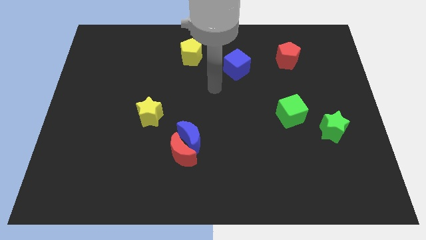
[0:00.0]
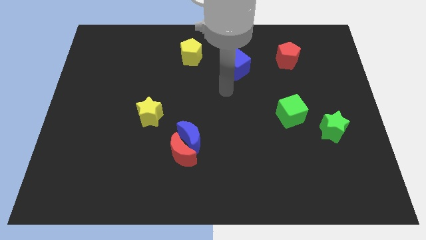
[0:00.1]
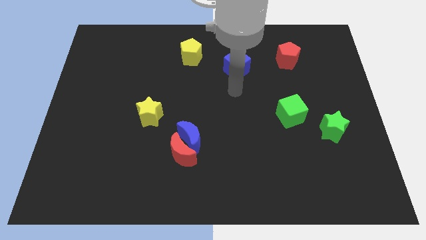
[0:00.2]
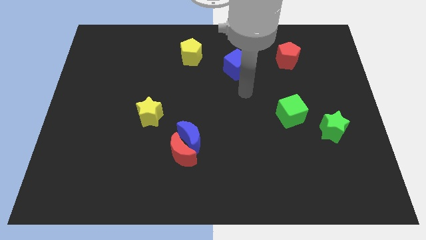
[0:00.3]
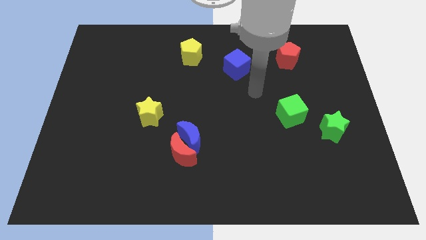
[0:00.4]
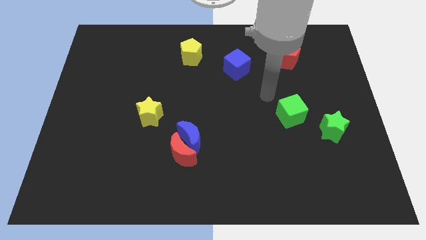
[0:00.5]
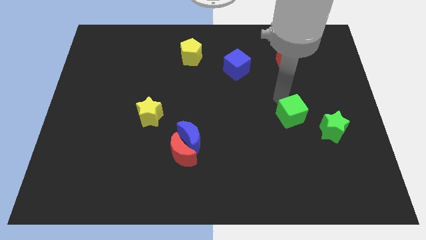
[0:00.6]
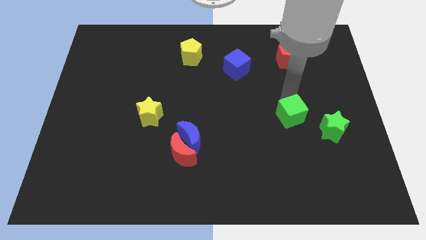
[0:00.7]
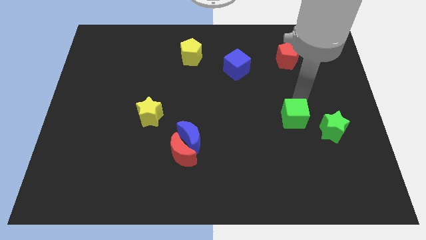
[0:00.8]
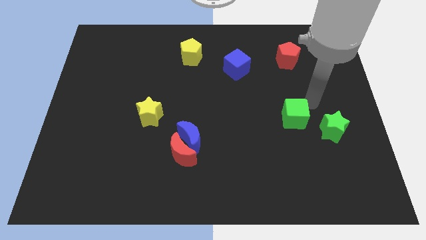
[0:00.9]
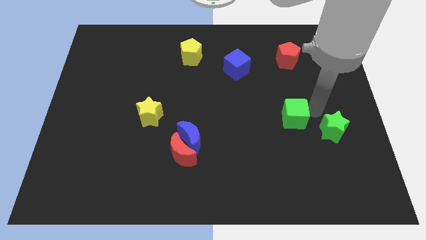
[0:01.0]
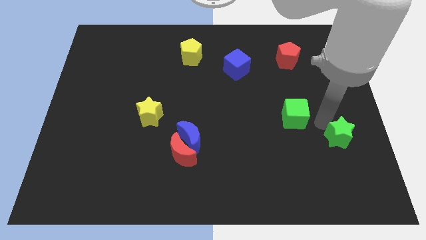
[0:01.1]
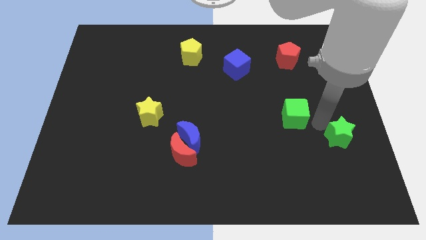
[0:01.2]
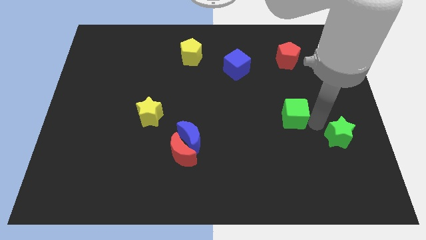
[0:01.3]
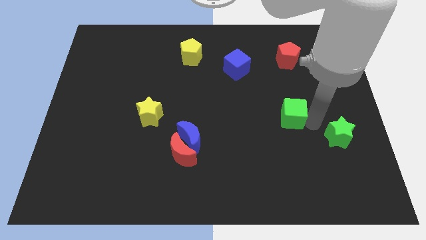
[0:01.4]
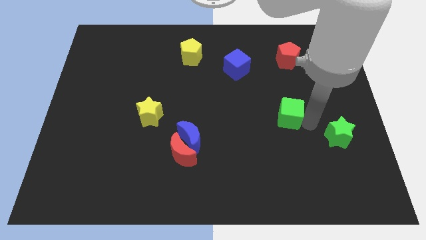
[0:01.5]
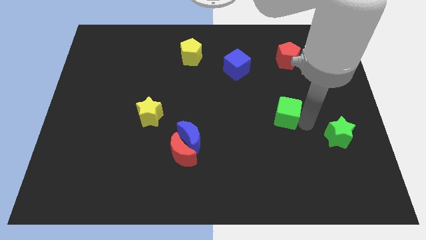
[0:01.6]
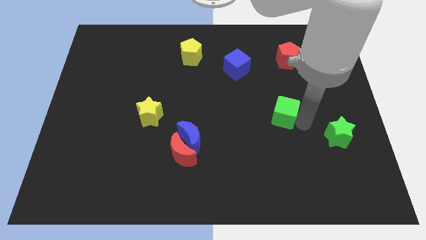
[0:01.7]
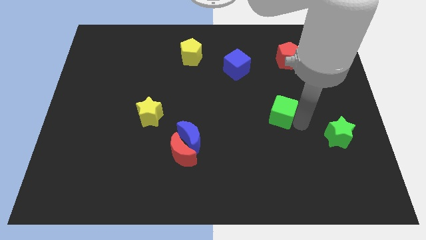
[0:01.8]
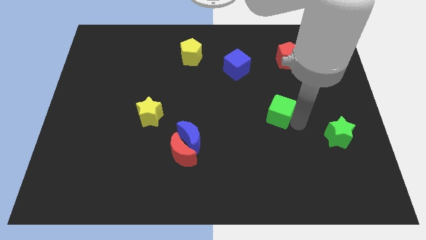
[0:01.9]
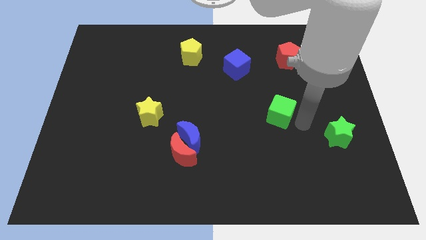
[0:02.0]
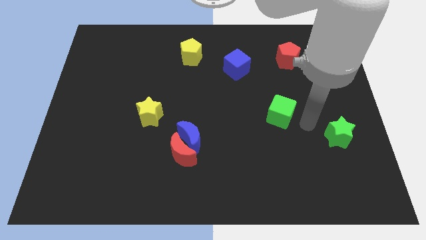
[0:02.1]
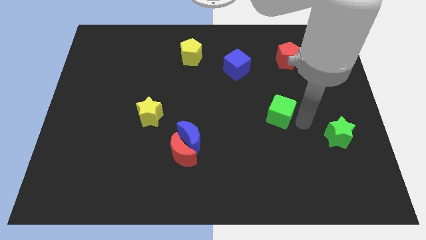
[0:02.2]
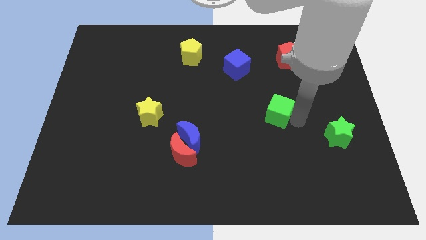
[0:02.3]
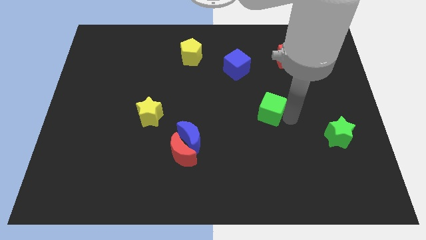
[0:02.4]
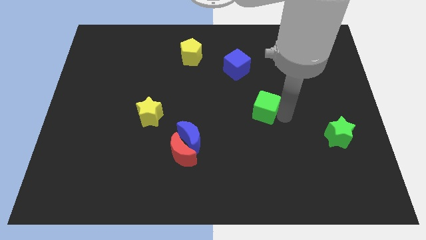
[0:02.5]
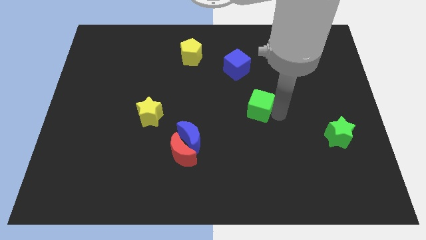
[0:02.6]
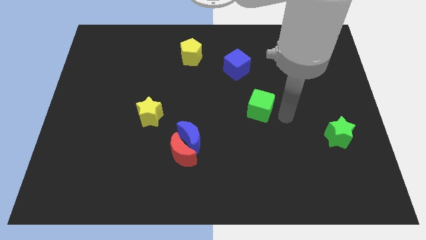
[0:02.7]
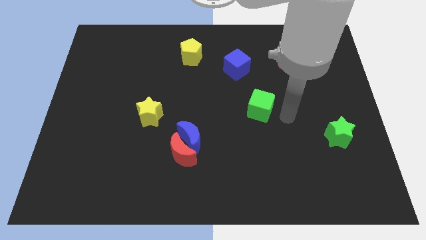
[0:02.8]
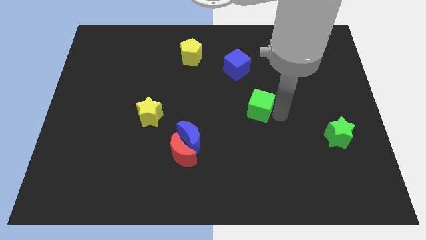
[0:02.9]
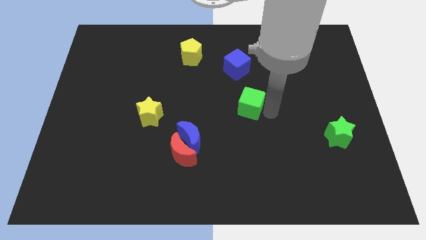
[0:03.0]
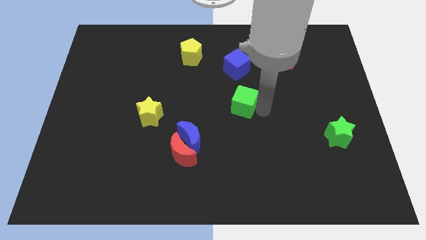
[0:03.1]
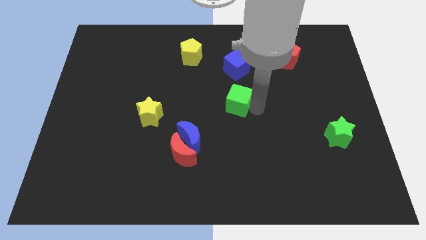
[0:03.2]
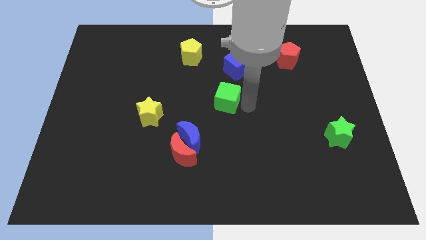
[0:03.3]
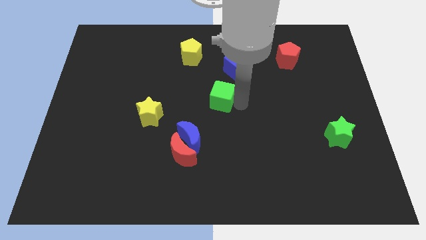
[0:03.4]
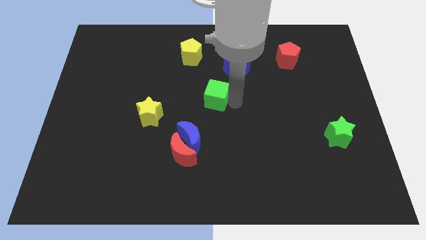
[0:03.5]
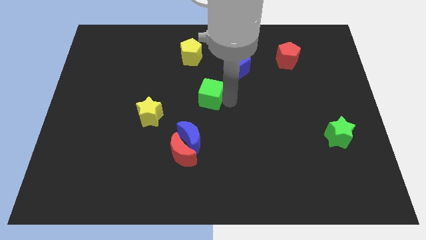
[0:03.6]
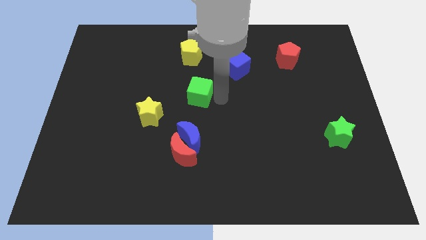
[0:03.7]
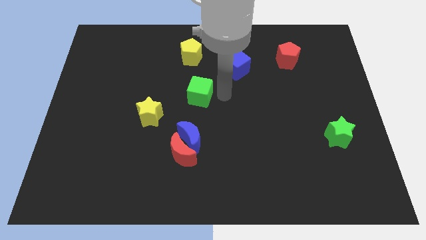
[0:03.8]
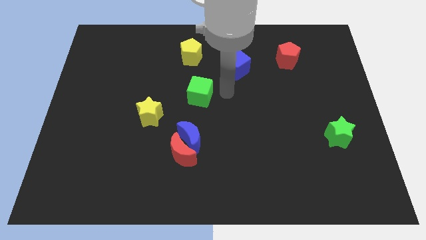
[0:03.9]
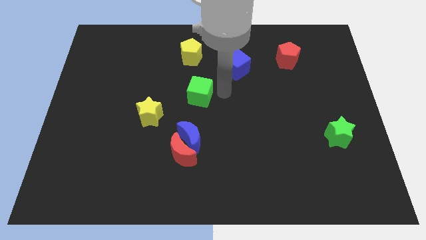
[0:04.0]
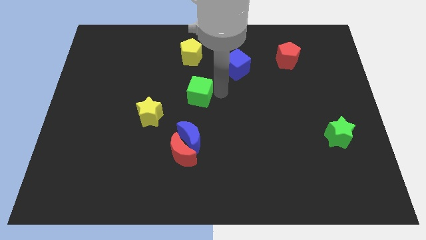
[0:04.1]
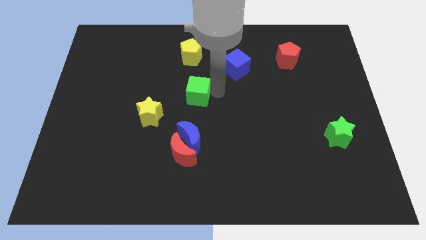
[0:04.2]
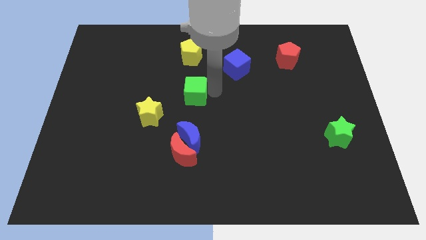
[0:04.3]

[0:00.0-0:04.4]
slide the green cube to the top right of the yellow star

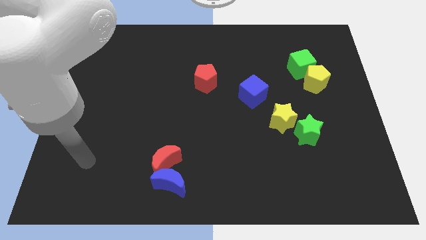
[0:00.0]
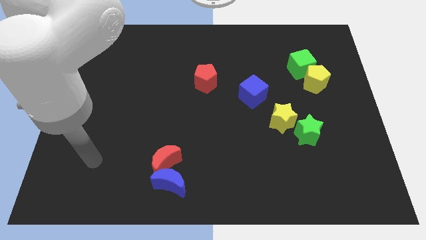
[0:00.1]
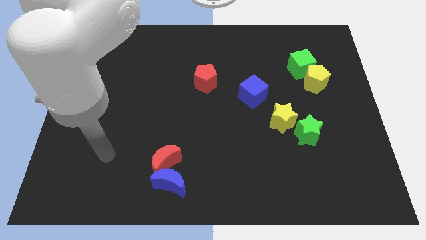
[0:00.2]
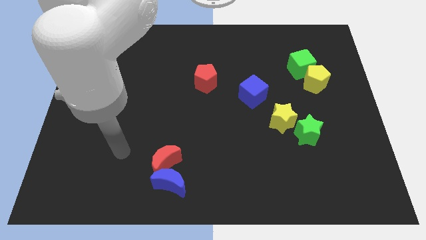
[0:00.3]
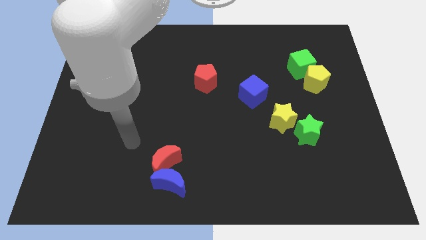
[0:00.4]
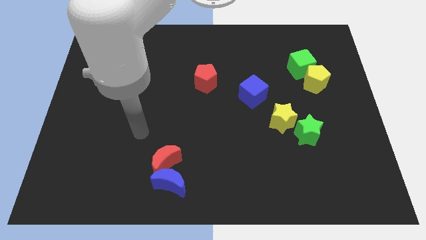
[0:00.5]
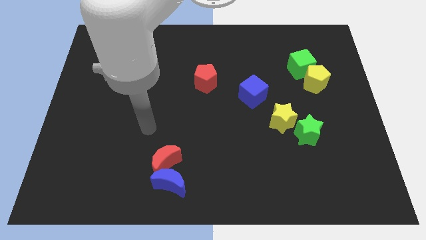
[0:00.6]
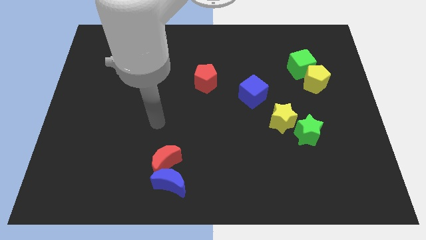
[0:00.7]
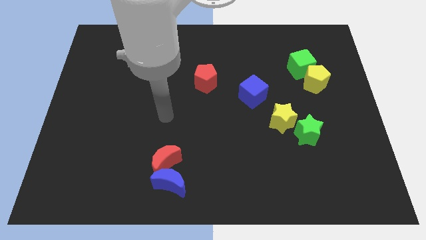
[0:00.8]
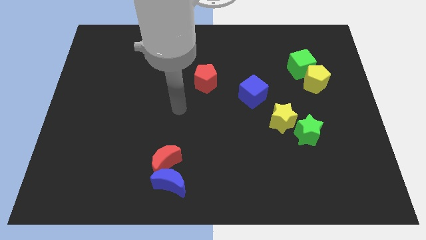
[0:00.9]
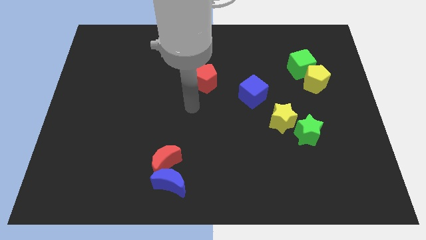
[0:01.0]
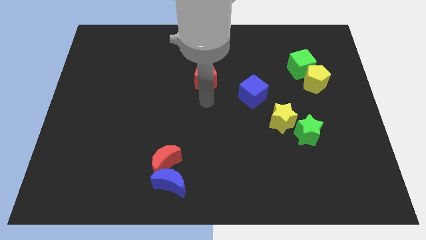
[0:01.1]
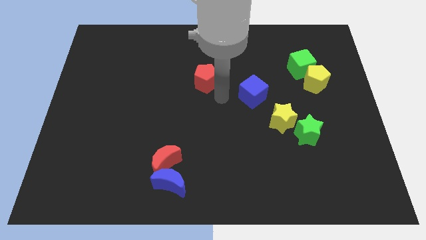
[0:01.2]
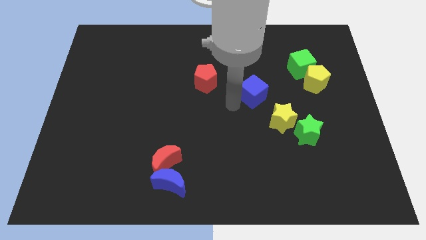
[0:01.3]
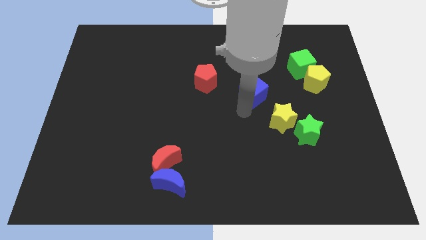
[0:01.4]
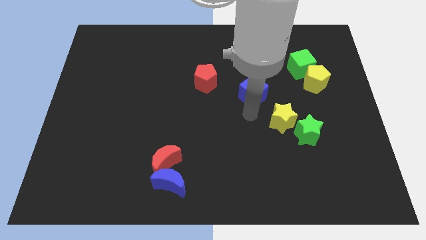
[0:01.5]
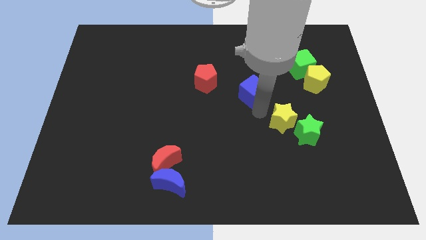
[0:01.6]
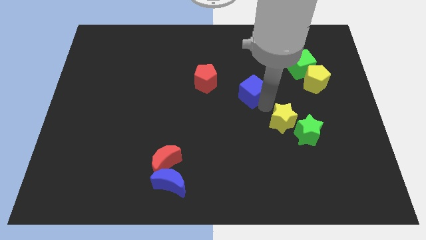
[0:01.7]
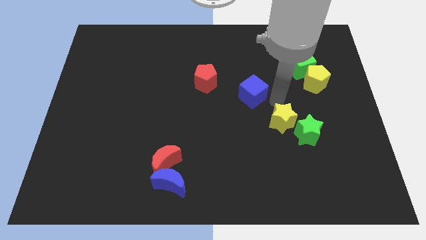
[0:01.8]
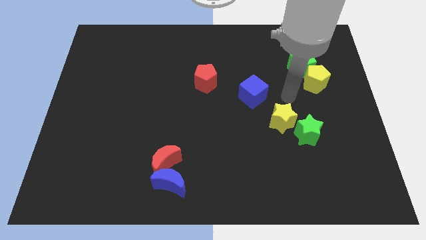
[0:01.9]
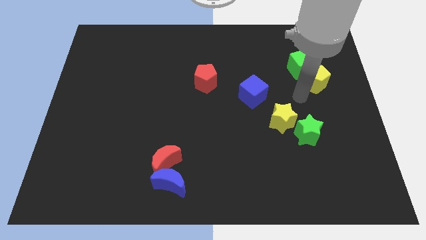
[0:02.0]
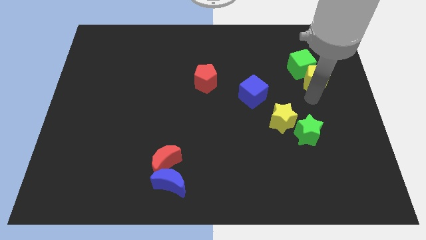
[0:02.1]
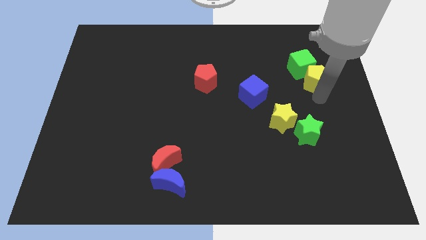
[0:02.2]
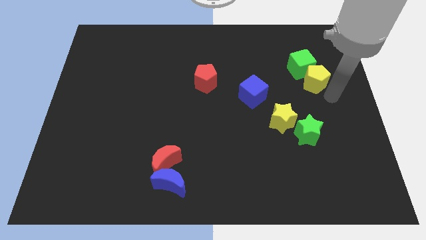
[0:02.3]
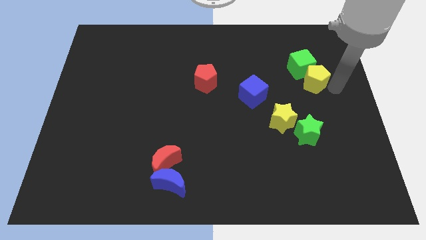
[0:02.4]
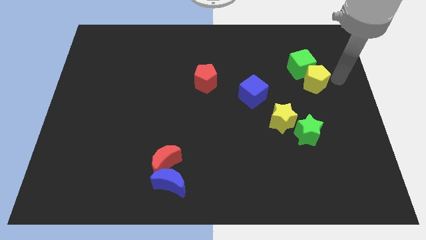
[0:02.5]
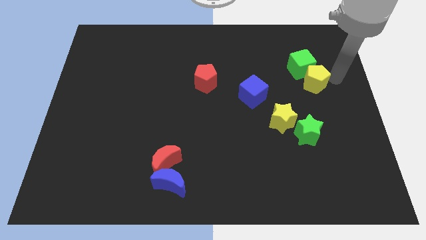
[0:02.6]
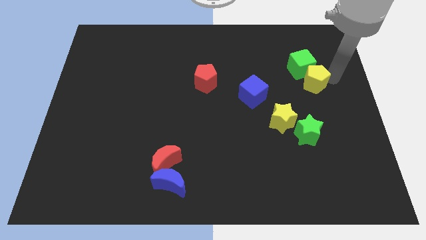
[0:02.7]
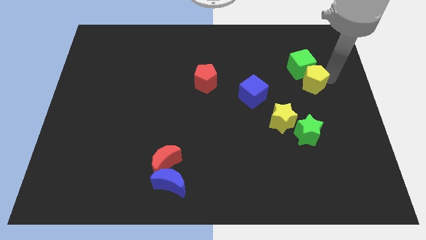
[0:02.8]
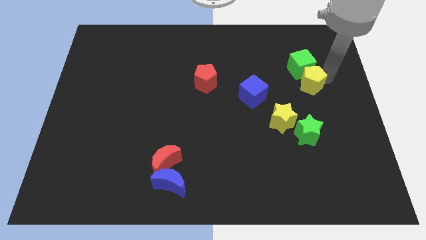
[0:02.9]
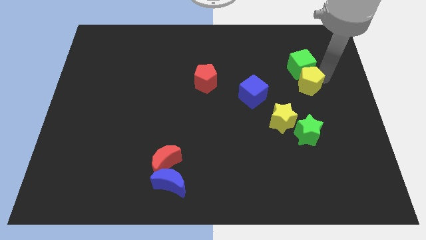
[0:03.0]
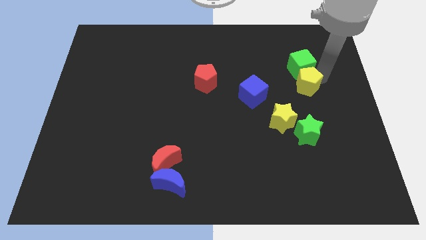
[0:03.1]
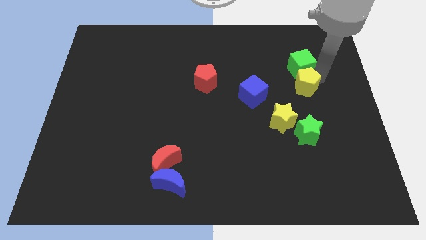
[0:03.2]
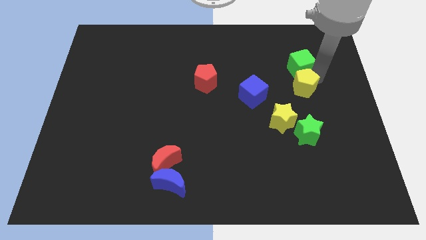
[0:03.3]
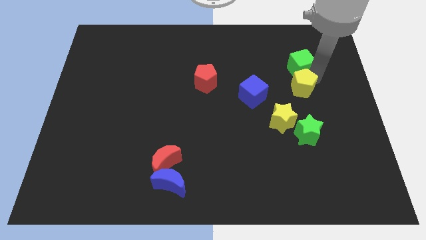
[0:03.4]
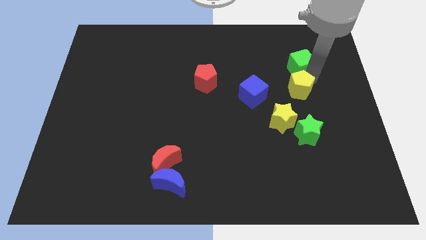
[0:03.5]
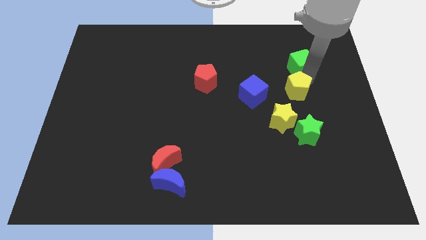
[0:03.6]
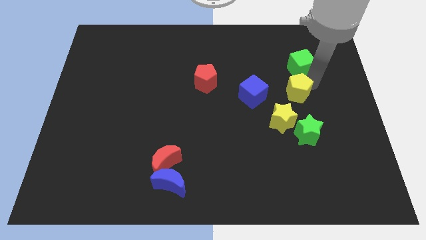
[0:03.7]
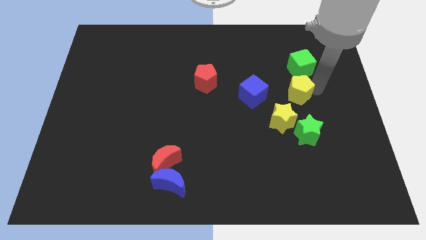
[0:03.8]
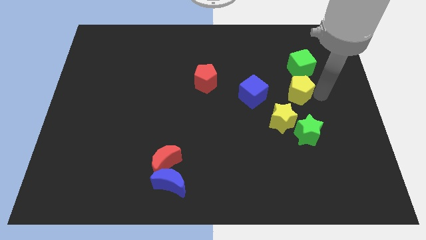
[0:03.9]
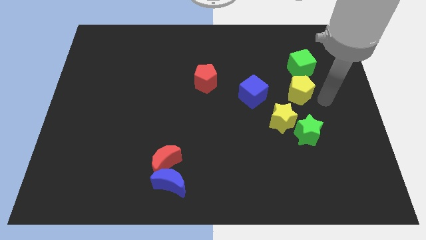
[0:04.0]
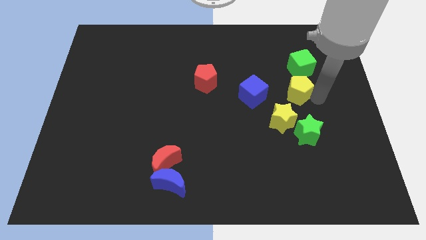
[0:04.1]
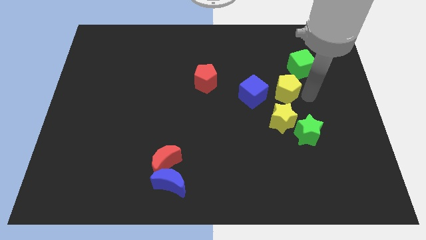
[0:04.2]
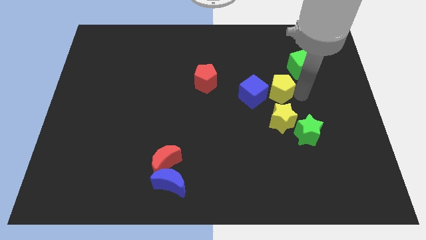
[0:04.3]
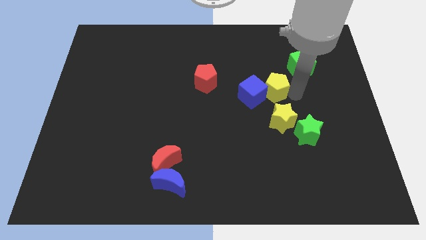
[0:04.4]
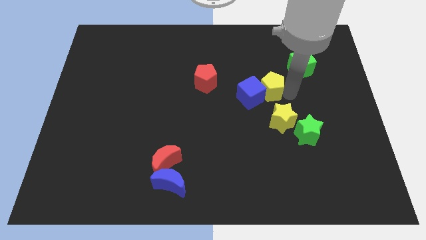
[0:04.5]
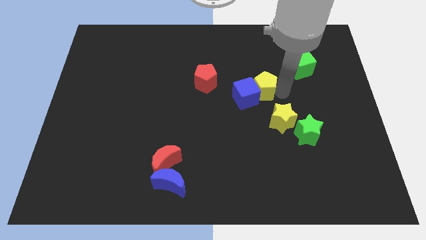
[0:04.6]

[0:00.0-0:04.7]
put the yellow pentagon to the right side of the red pentagon
